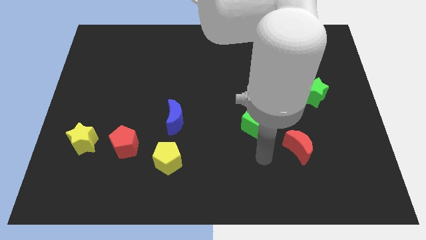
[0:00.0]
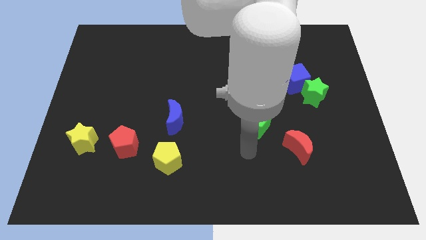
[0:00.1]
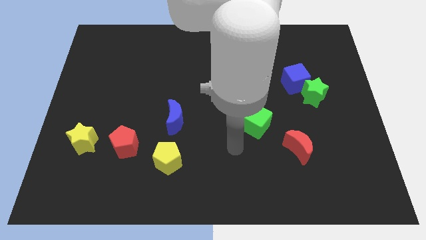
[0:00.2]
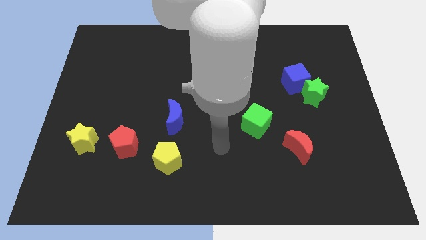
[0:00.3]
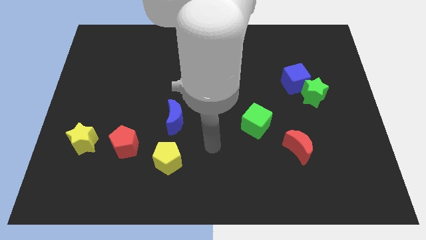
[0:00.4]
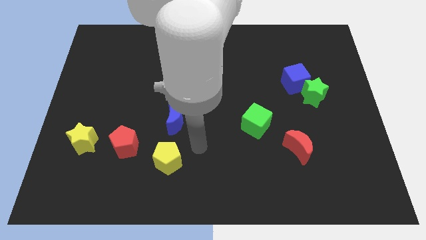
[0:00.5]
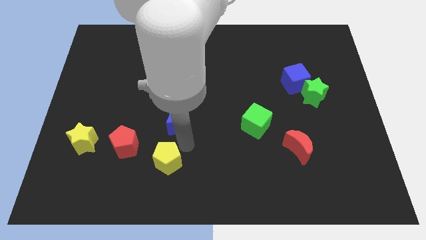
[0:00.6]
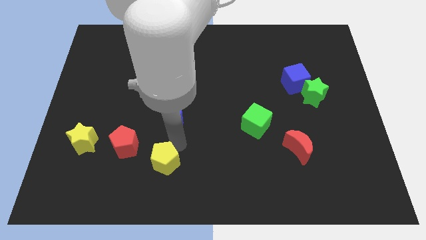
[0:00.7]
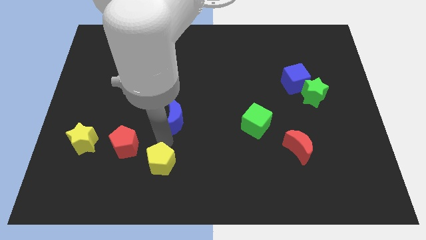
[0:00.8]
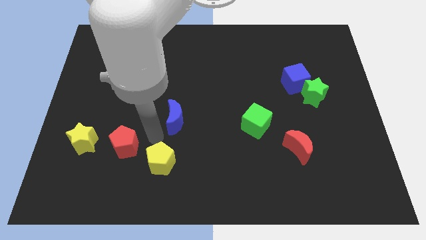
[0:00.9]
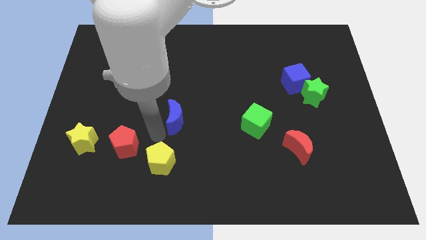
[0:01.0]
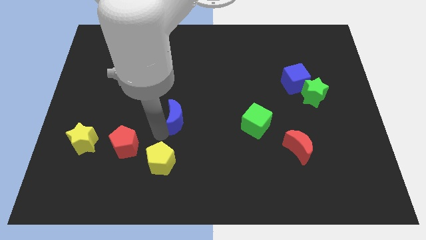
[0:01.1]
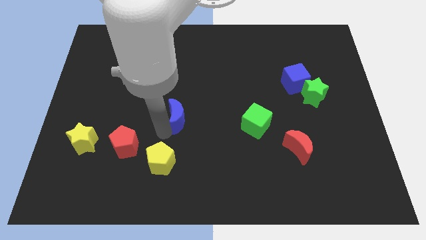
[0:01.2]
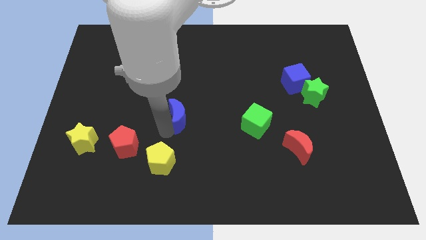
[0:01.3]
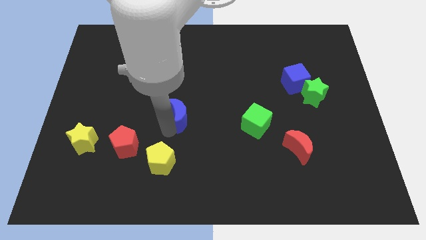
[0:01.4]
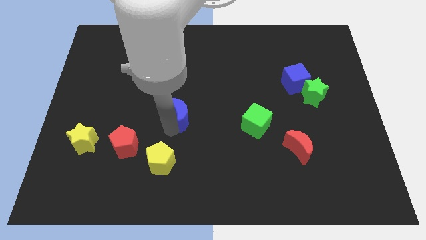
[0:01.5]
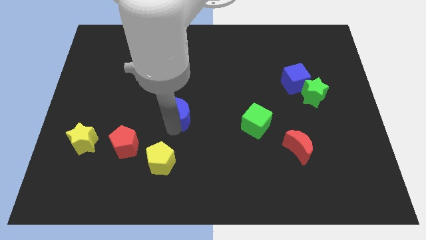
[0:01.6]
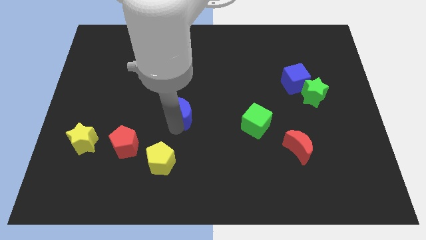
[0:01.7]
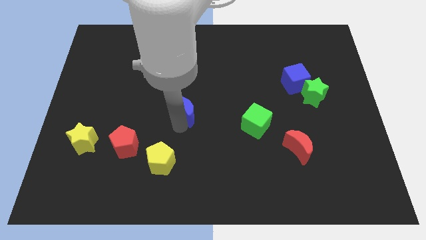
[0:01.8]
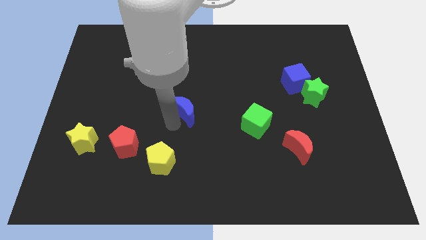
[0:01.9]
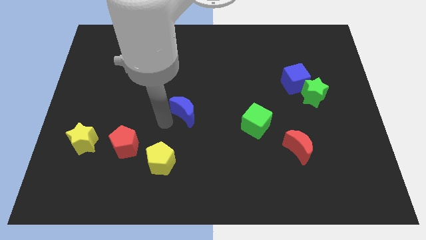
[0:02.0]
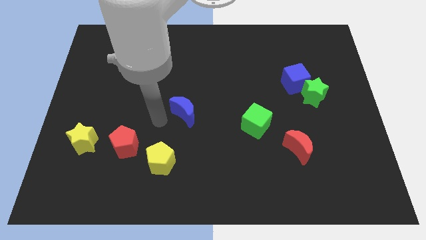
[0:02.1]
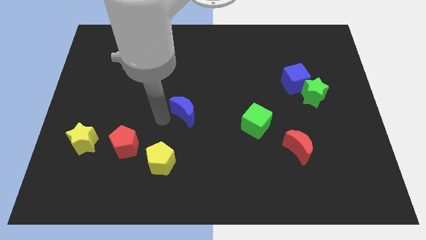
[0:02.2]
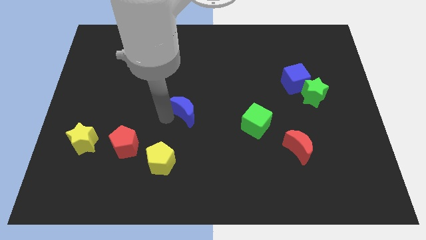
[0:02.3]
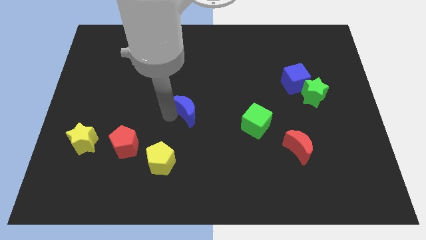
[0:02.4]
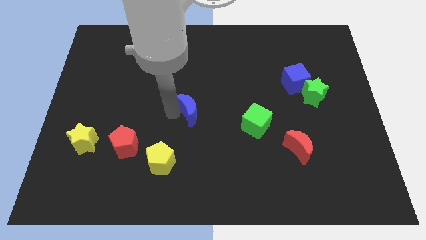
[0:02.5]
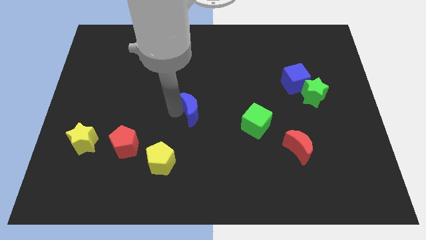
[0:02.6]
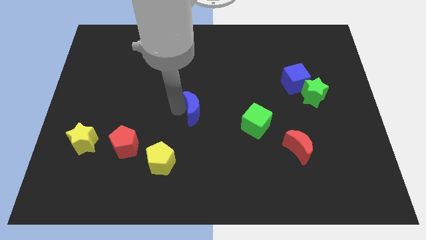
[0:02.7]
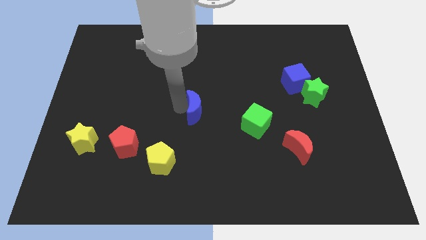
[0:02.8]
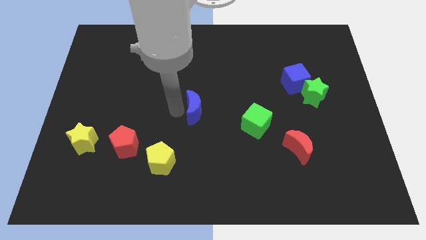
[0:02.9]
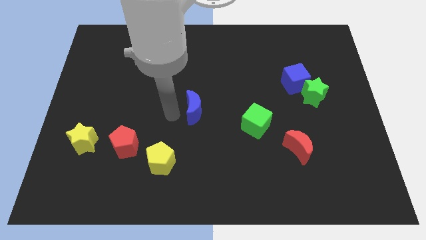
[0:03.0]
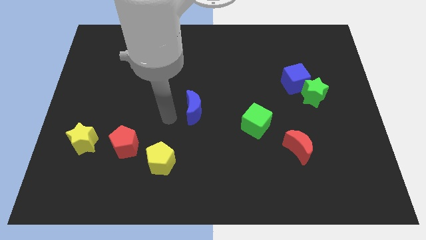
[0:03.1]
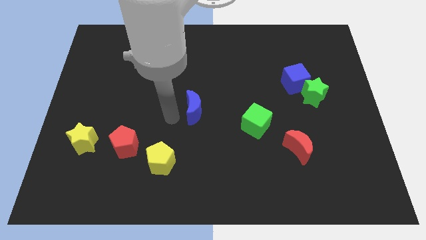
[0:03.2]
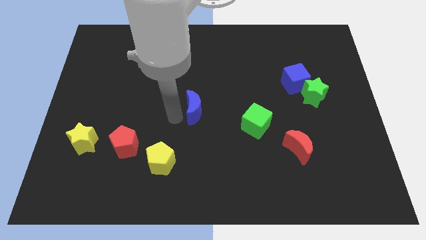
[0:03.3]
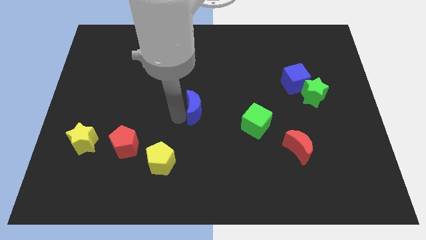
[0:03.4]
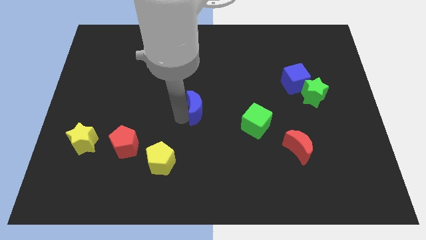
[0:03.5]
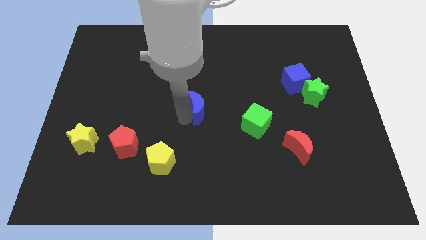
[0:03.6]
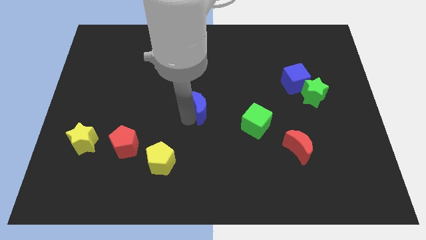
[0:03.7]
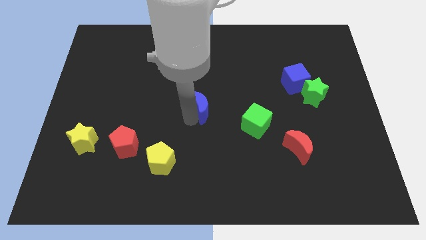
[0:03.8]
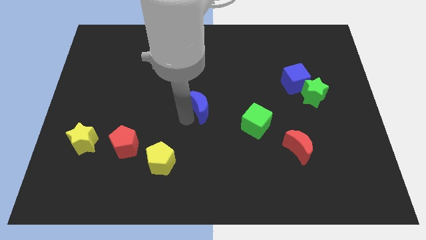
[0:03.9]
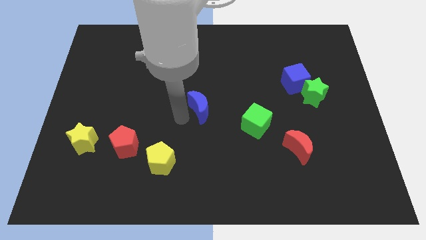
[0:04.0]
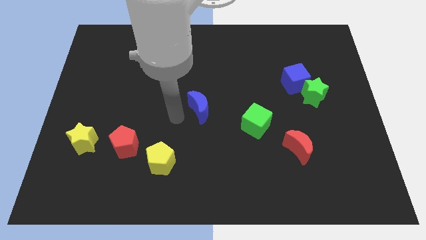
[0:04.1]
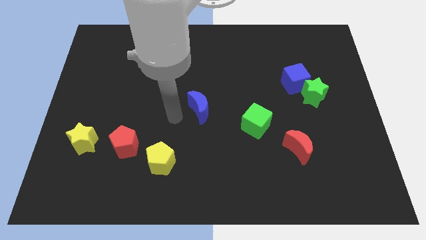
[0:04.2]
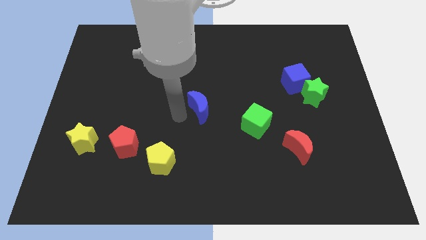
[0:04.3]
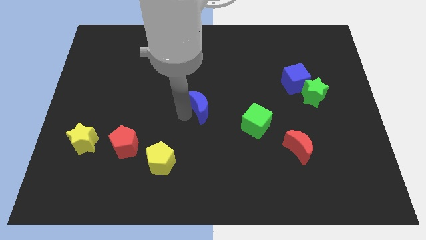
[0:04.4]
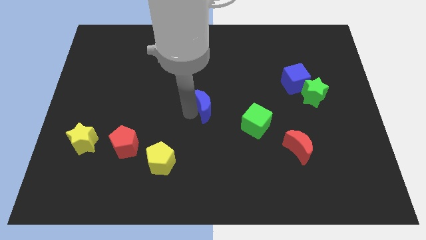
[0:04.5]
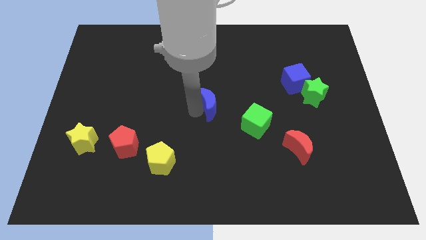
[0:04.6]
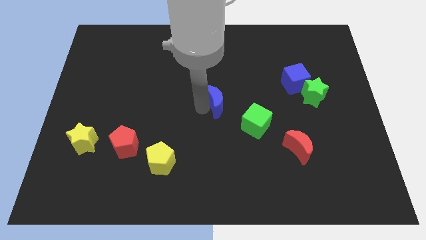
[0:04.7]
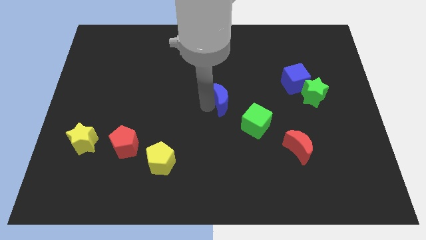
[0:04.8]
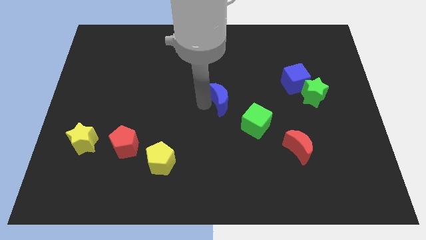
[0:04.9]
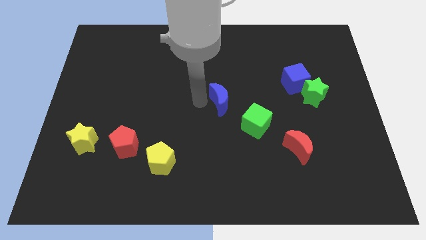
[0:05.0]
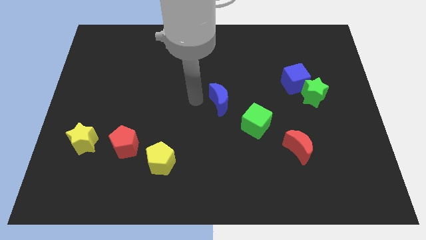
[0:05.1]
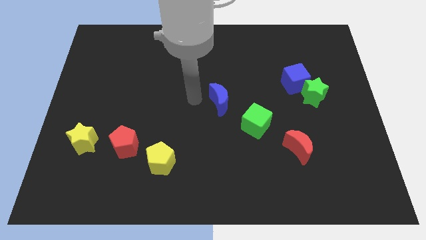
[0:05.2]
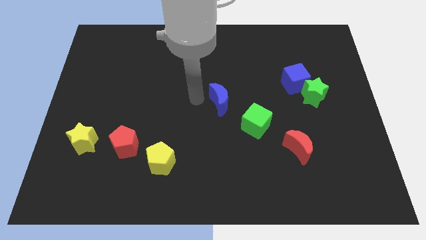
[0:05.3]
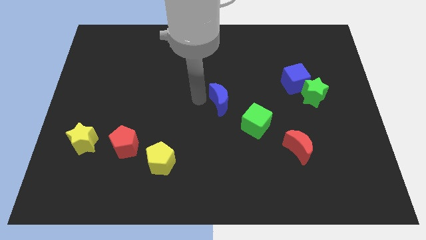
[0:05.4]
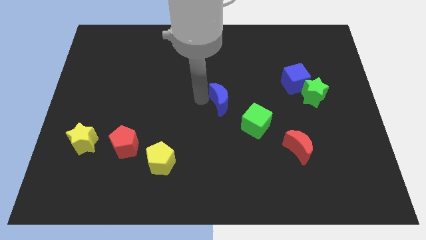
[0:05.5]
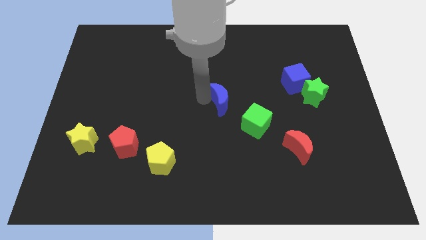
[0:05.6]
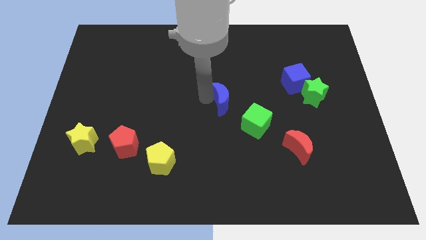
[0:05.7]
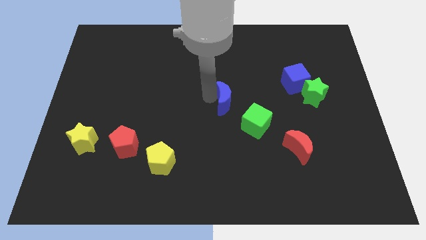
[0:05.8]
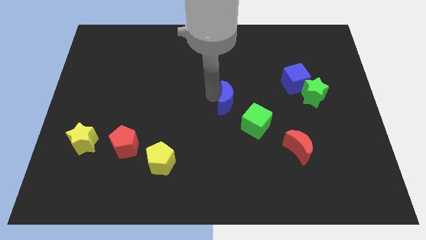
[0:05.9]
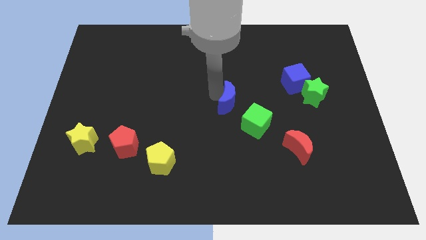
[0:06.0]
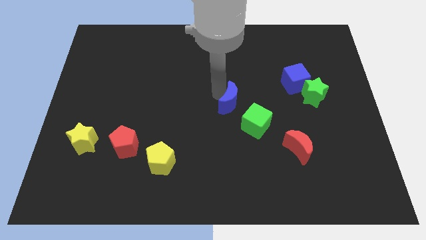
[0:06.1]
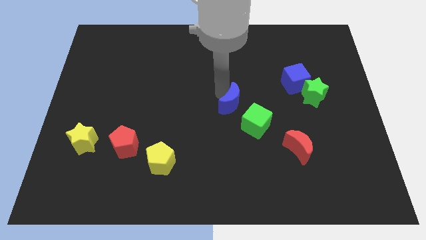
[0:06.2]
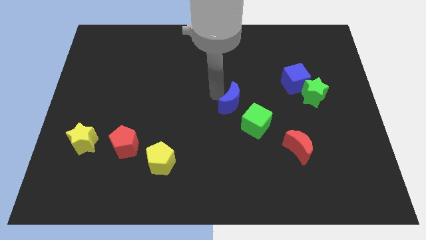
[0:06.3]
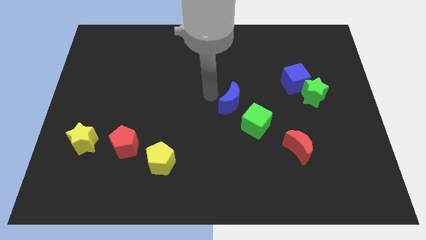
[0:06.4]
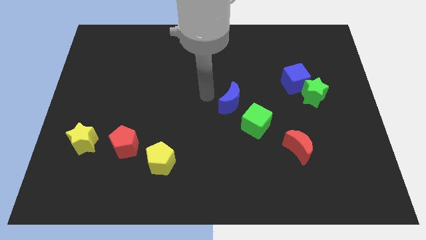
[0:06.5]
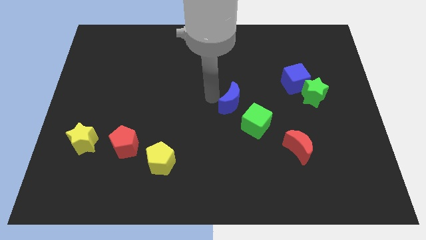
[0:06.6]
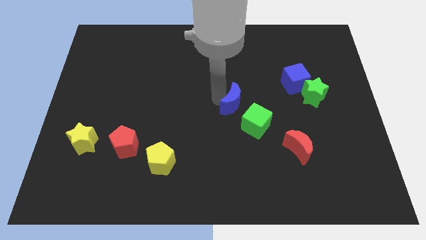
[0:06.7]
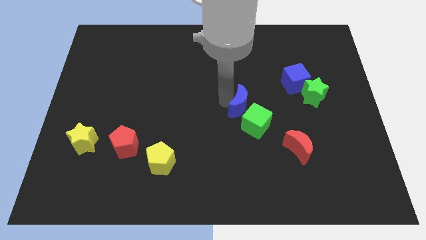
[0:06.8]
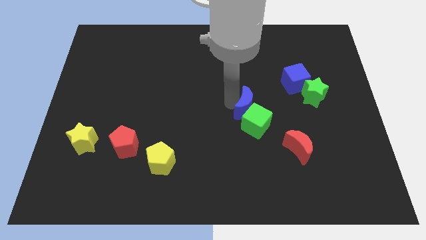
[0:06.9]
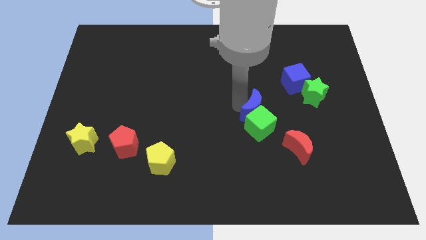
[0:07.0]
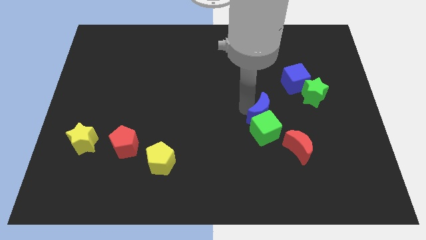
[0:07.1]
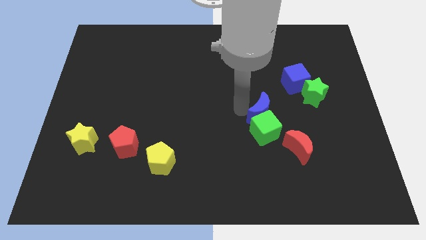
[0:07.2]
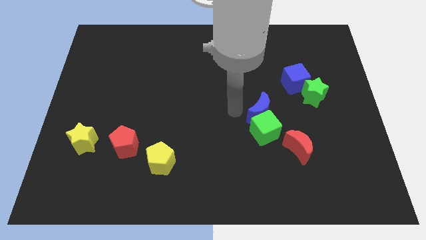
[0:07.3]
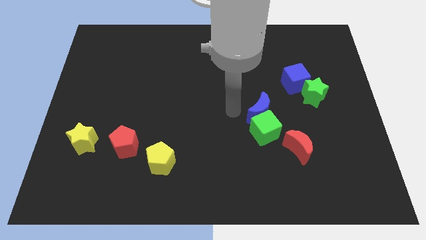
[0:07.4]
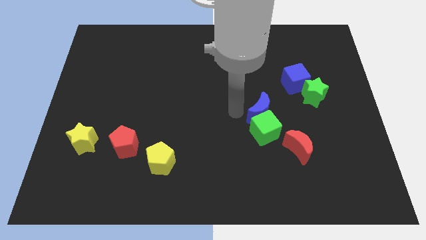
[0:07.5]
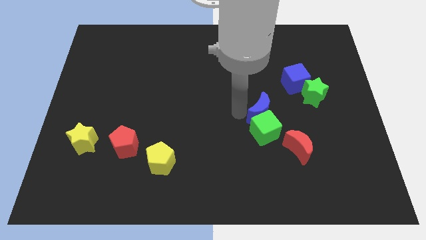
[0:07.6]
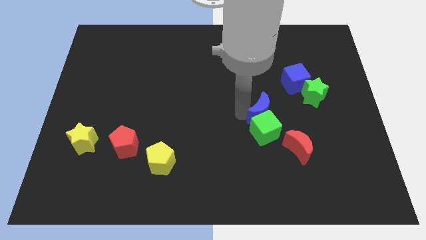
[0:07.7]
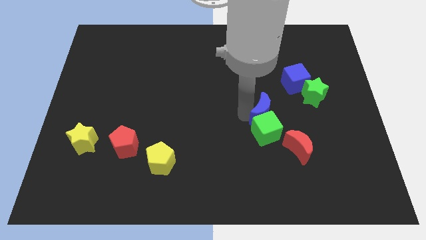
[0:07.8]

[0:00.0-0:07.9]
move the blue moon right
